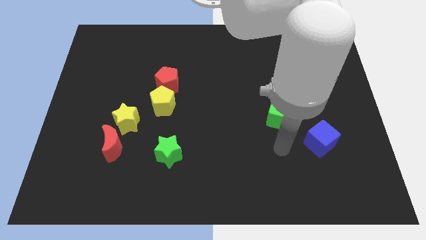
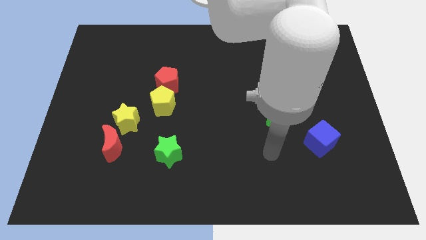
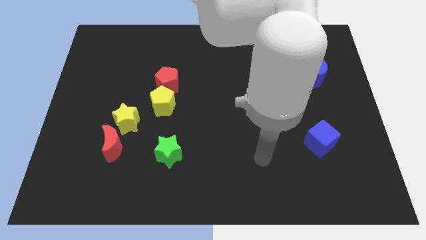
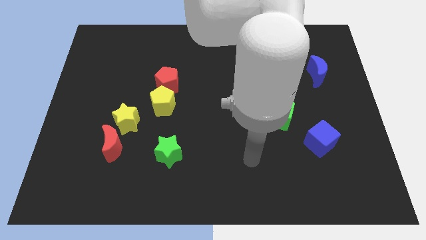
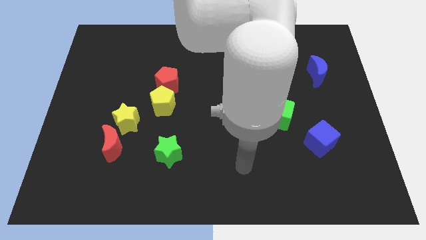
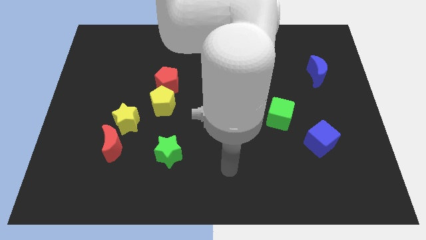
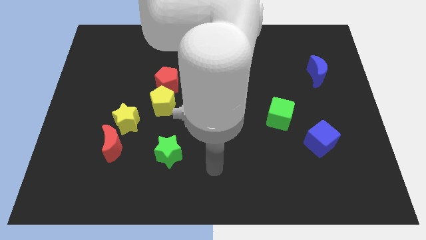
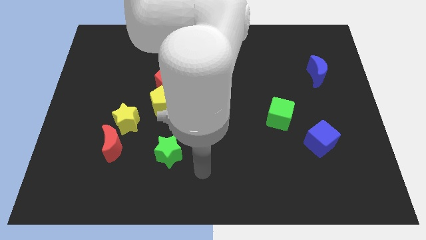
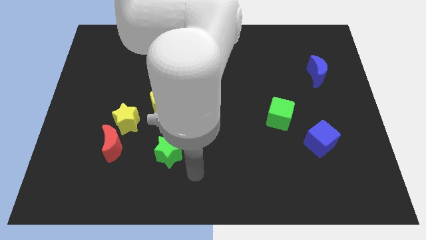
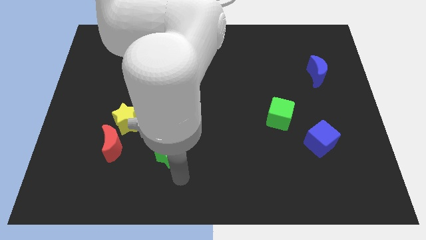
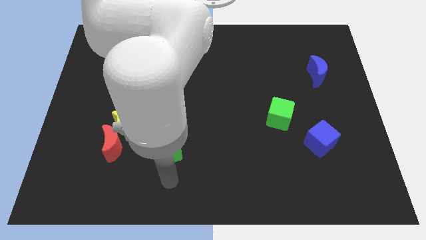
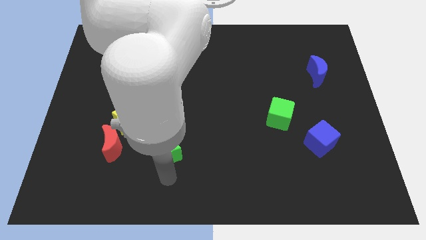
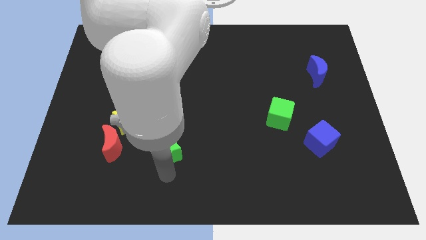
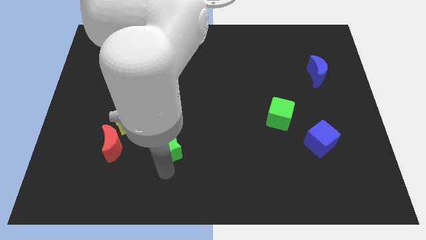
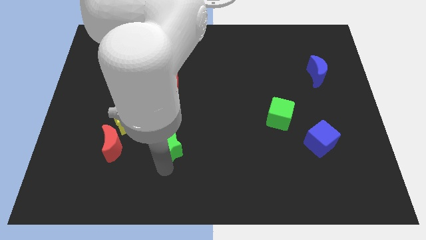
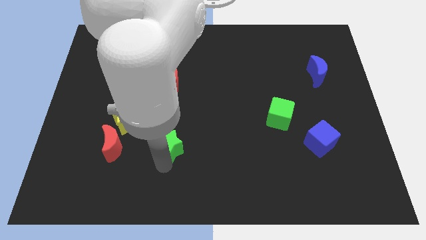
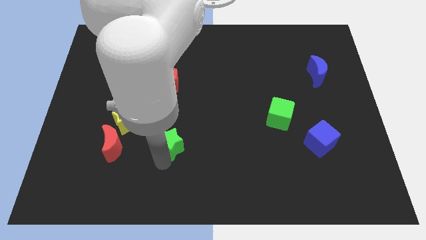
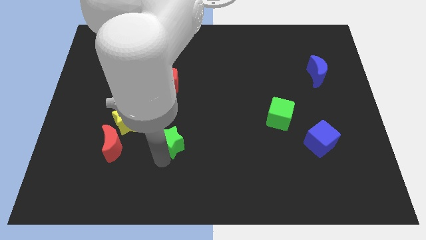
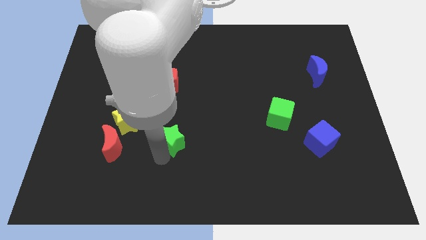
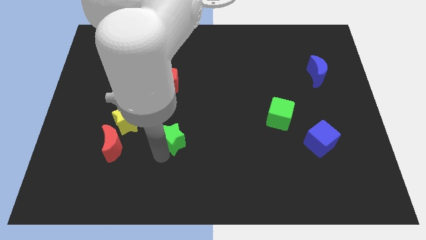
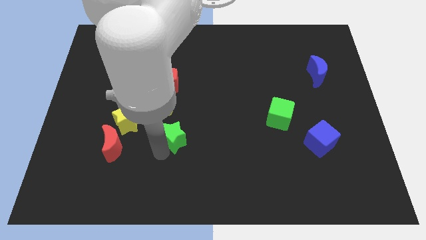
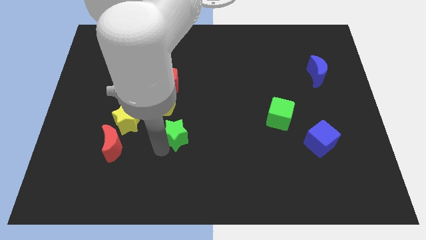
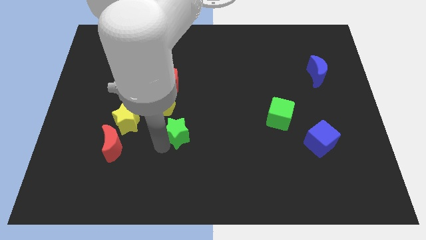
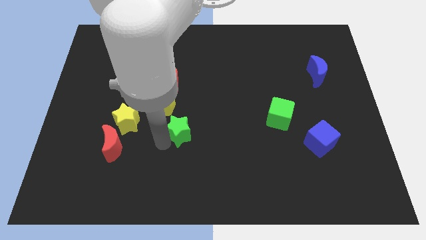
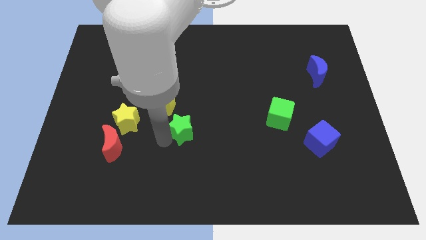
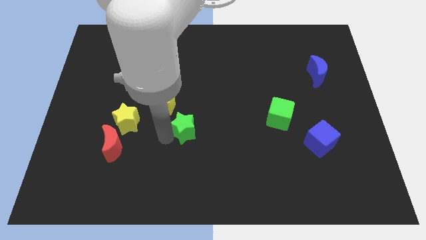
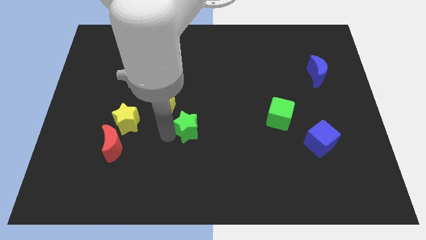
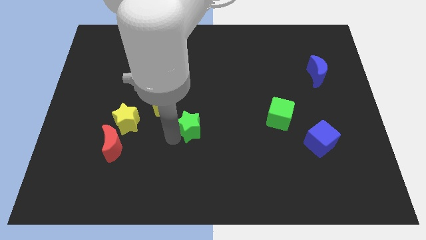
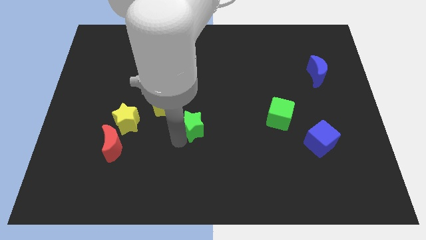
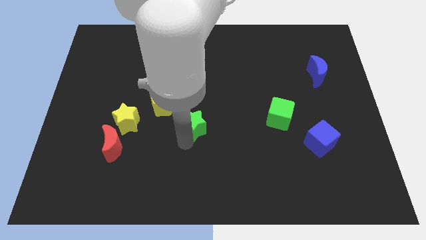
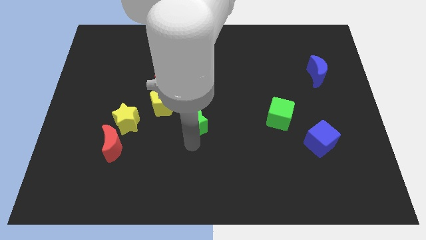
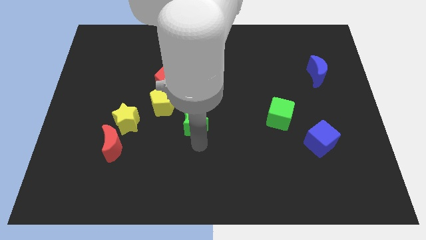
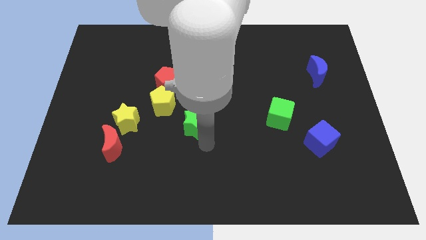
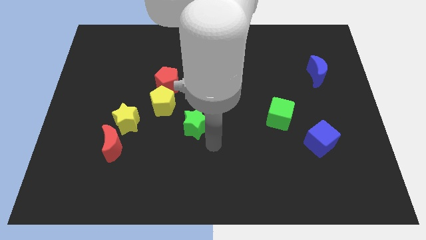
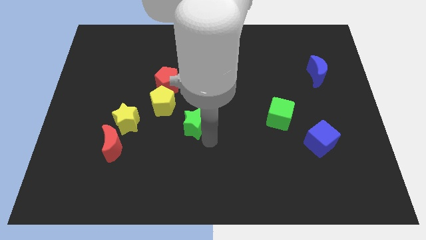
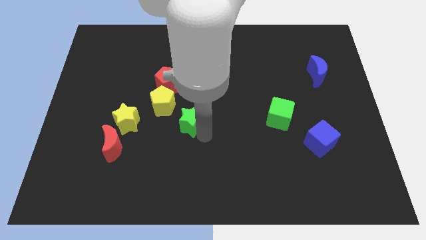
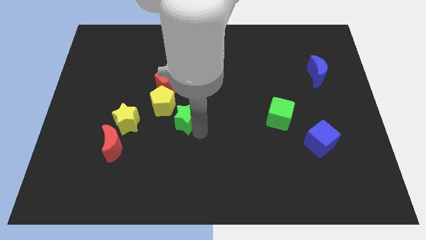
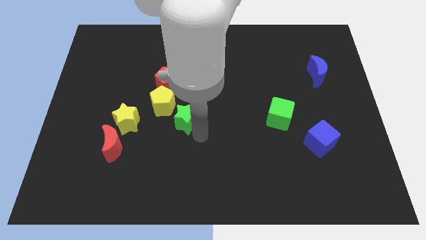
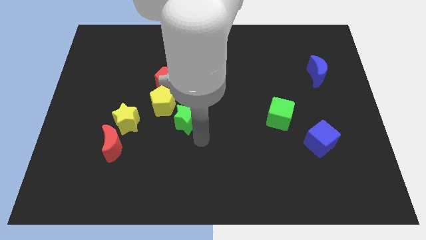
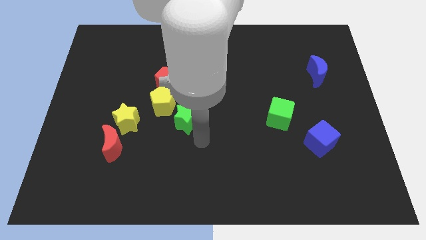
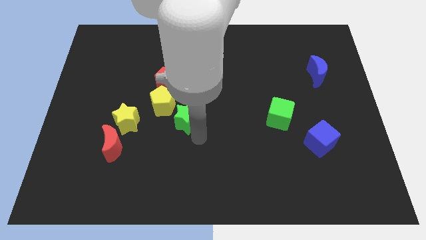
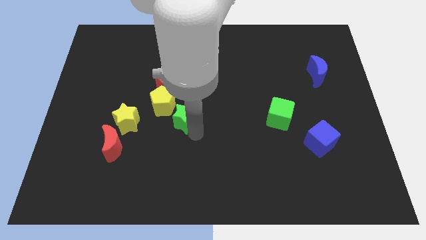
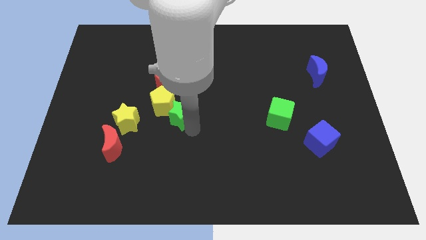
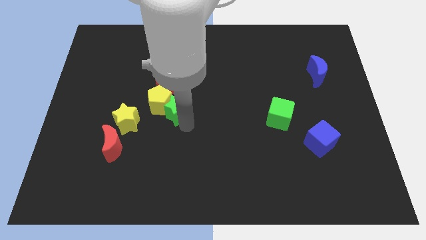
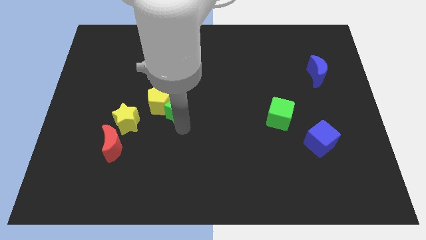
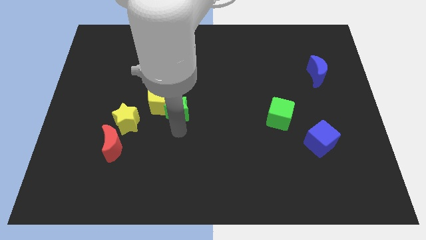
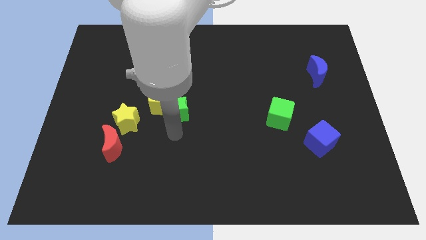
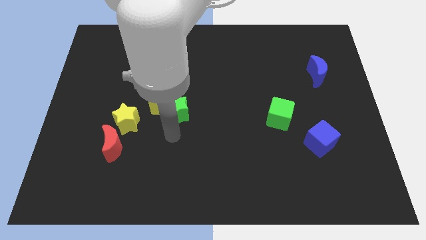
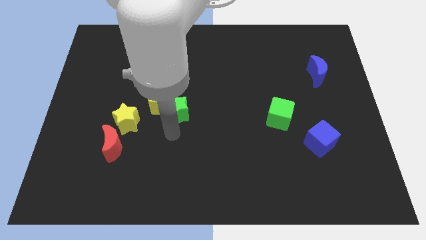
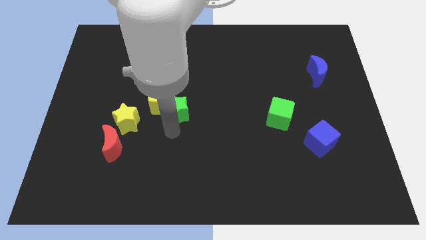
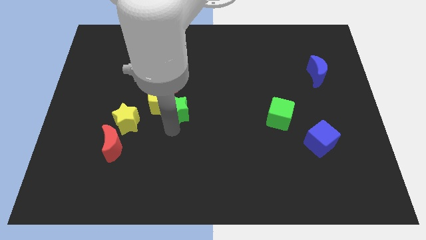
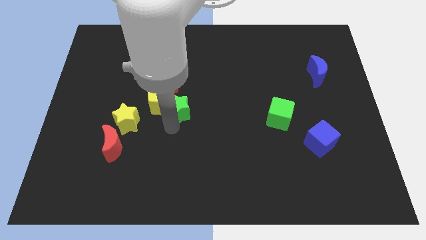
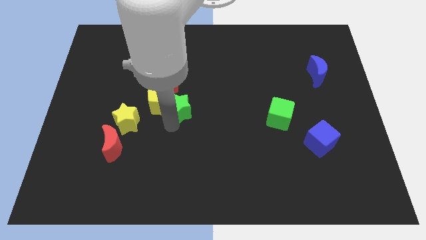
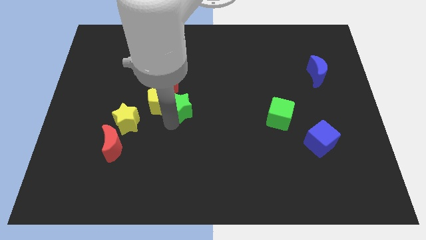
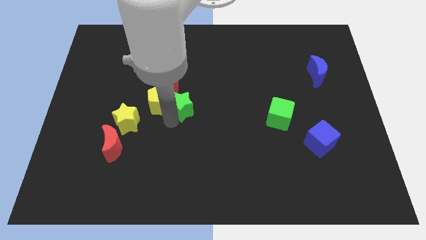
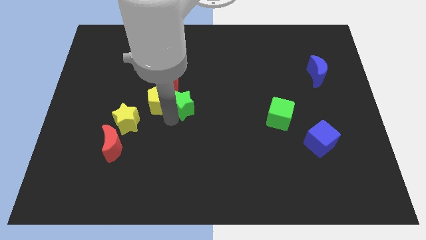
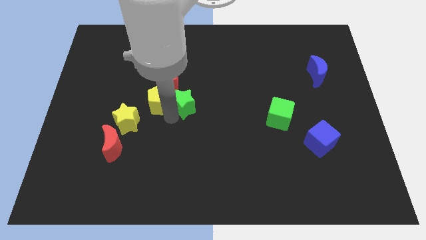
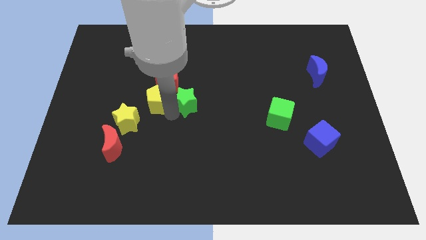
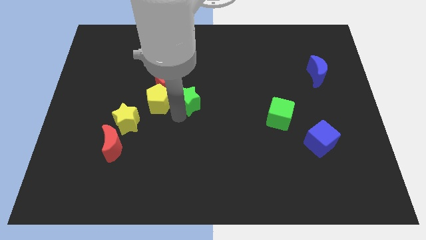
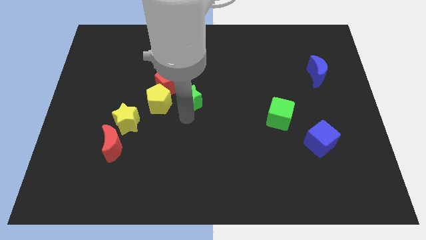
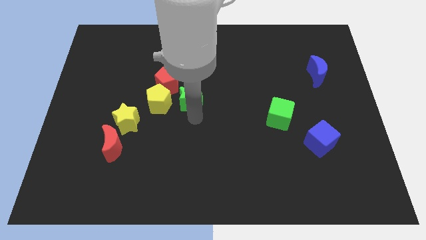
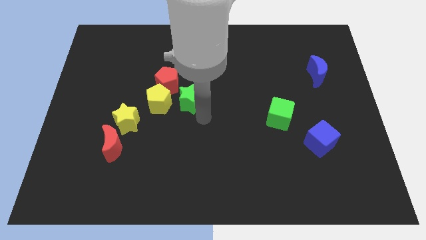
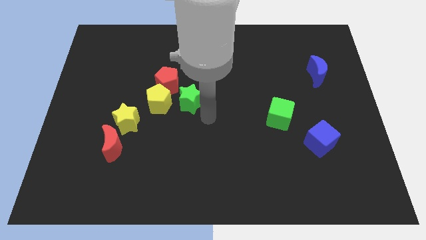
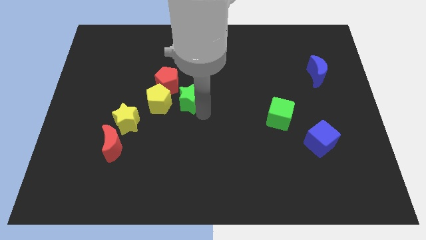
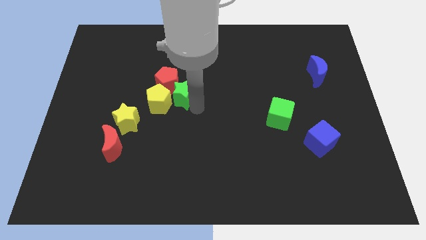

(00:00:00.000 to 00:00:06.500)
put the green star close to the red pentagon

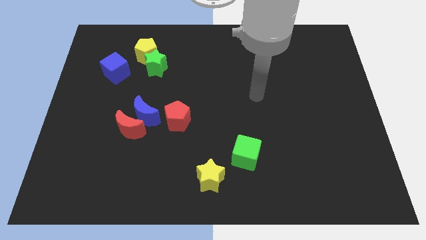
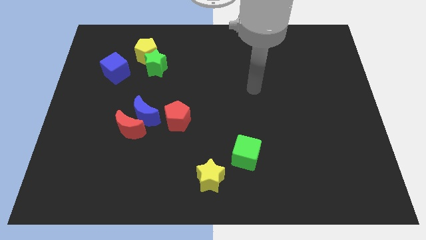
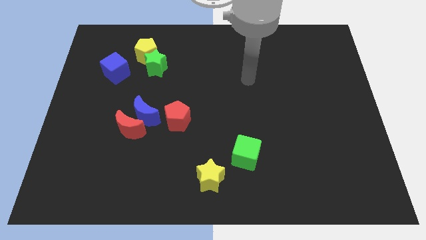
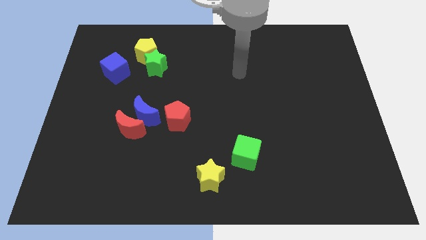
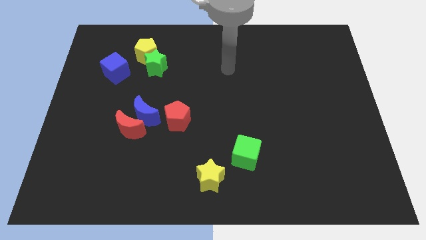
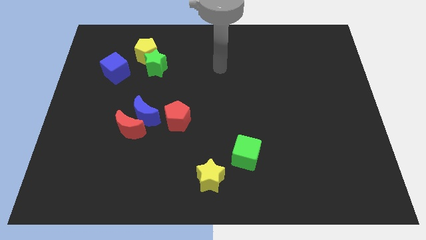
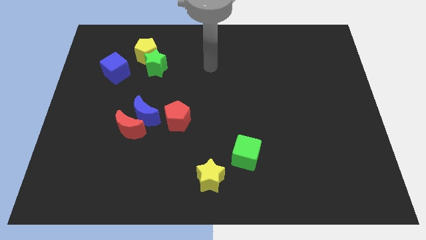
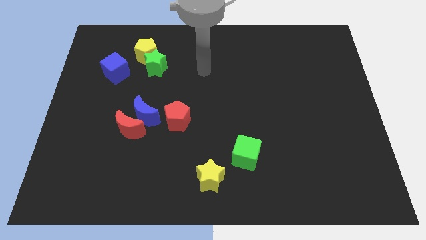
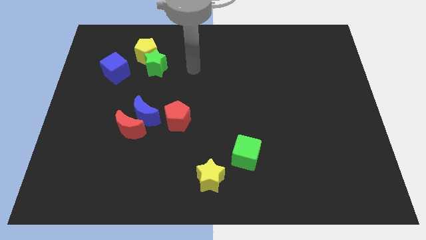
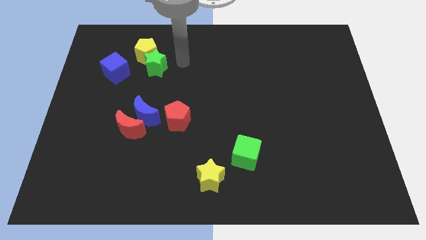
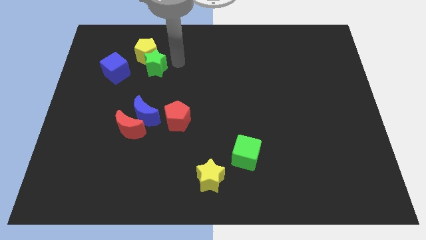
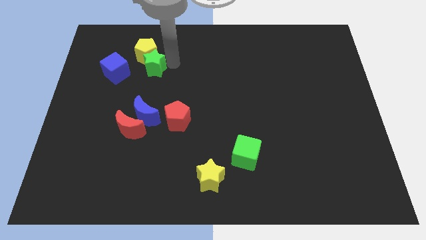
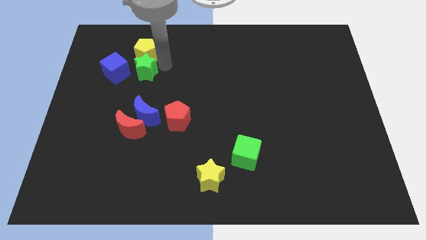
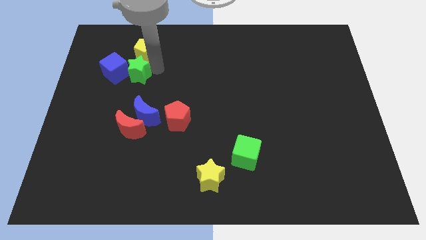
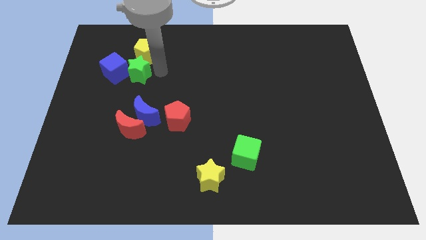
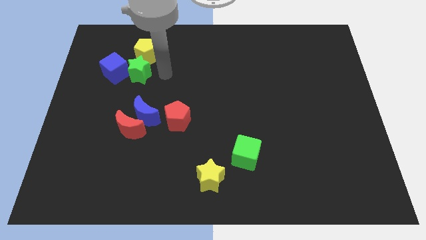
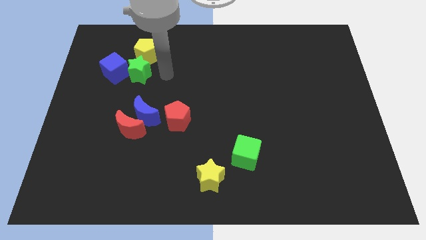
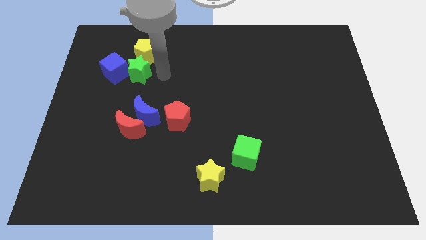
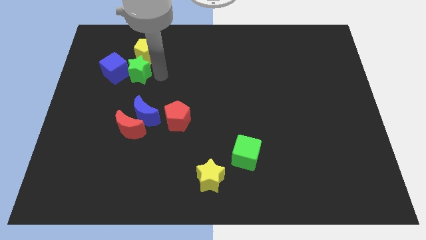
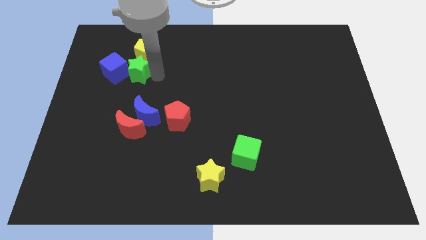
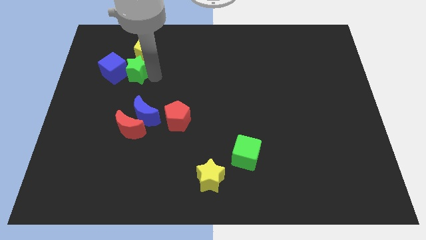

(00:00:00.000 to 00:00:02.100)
push the green star close to the blue cube
